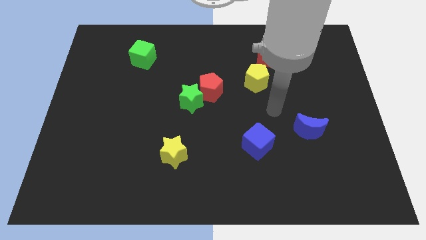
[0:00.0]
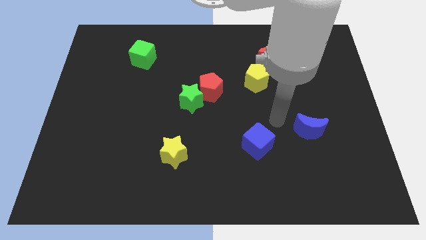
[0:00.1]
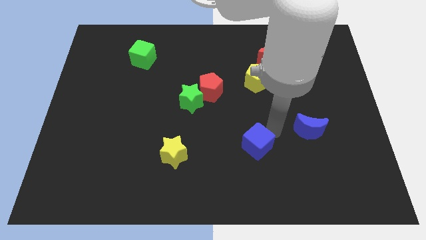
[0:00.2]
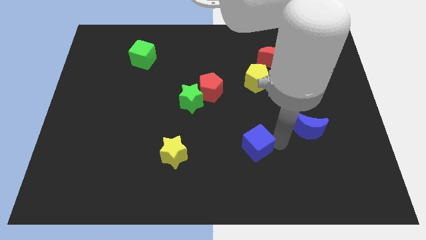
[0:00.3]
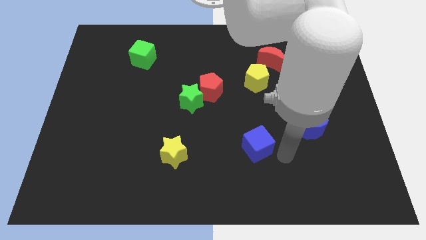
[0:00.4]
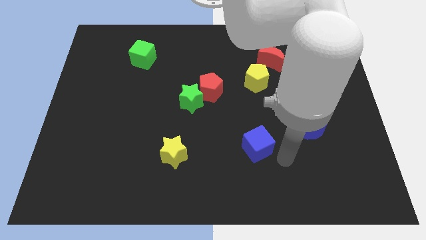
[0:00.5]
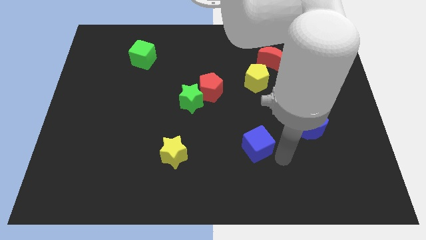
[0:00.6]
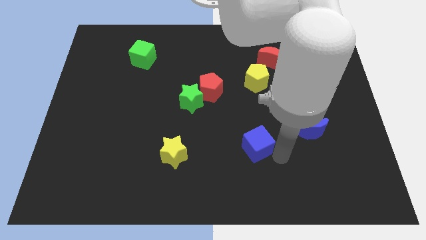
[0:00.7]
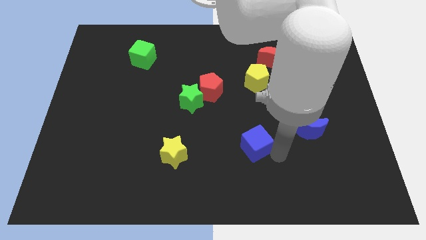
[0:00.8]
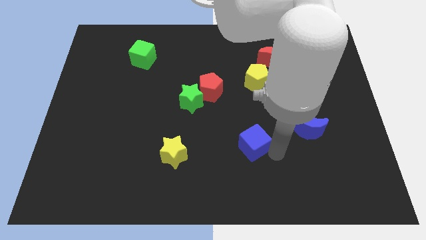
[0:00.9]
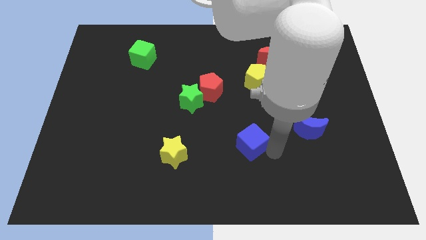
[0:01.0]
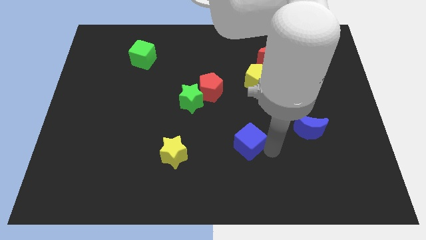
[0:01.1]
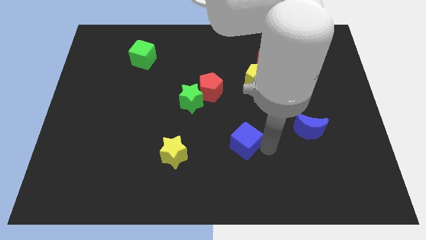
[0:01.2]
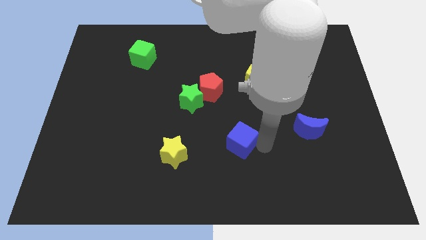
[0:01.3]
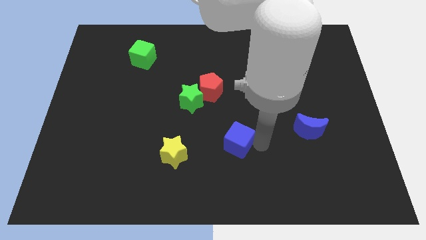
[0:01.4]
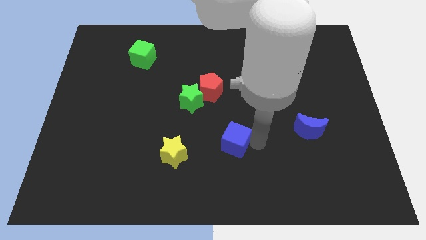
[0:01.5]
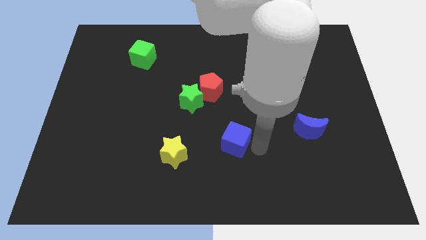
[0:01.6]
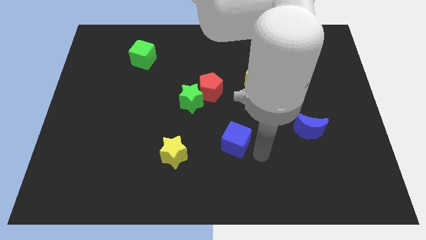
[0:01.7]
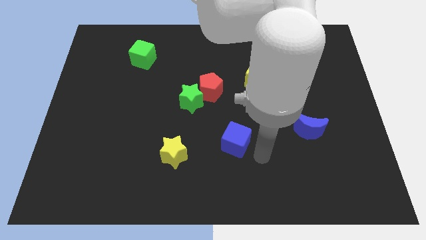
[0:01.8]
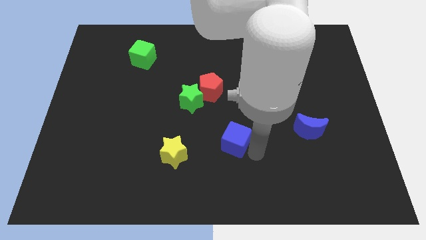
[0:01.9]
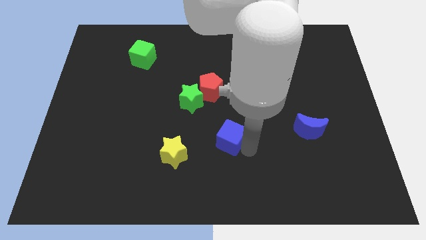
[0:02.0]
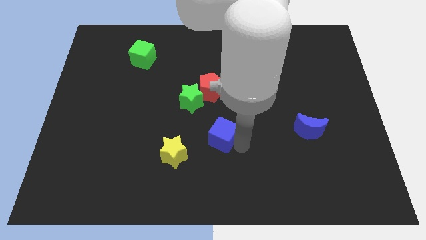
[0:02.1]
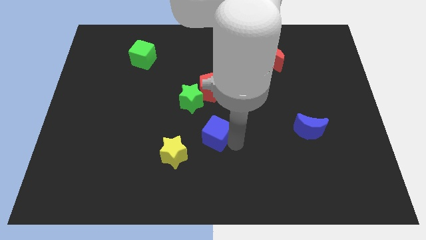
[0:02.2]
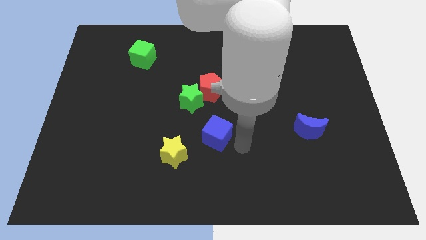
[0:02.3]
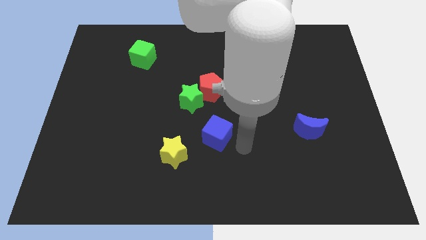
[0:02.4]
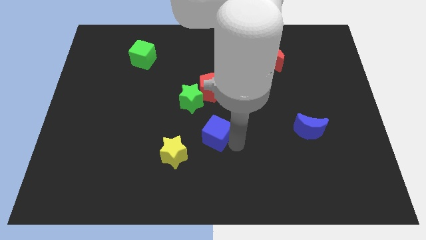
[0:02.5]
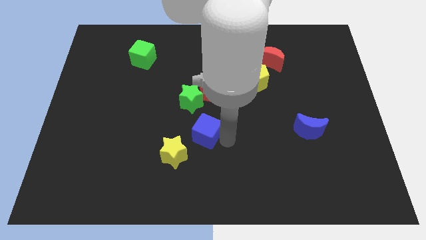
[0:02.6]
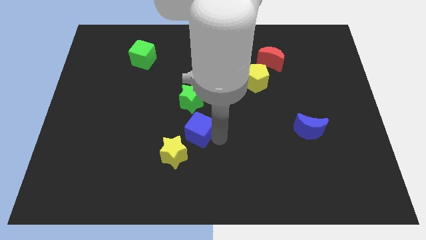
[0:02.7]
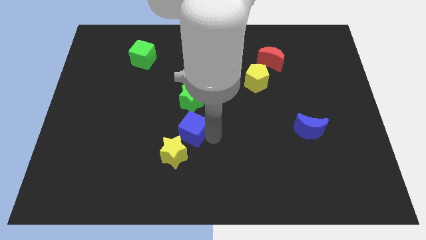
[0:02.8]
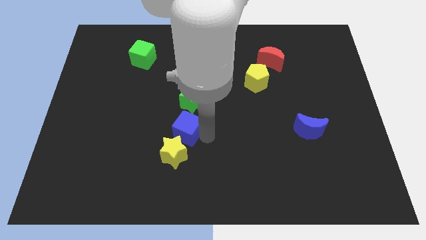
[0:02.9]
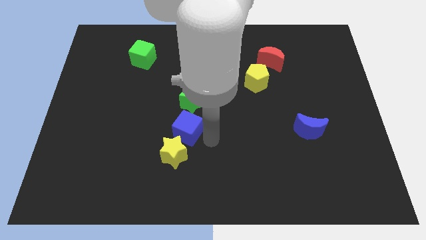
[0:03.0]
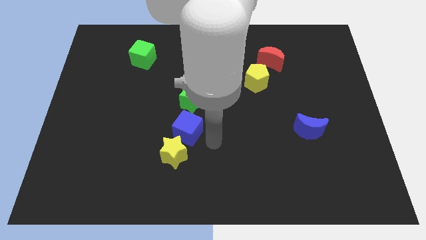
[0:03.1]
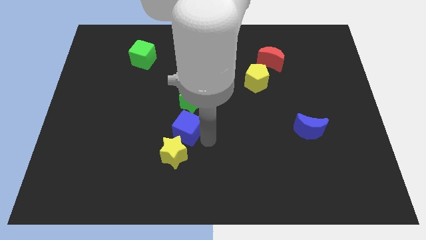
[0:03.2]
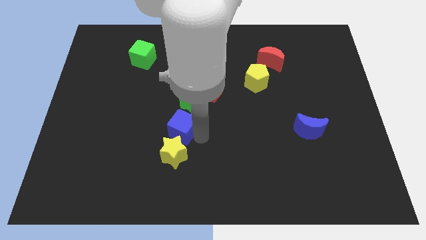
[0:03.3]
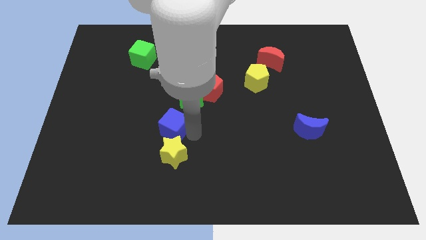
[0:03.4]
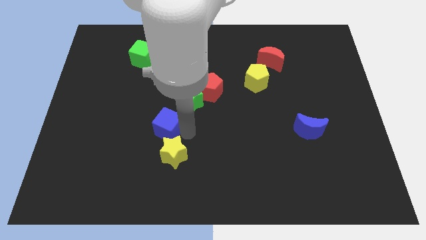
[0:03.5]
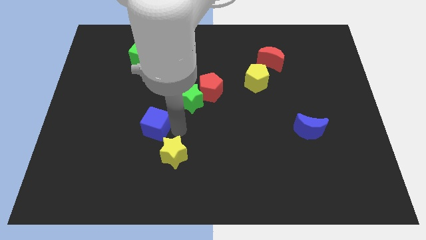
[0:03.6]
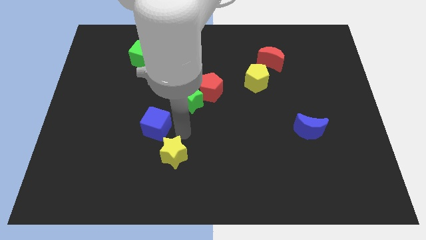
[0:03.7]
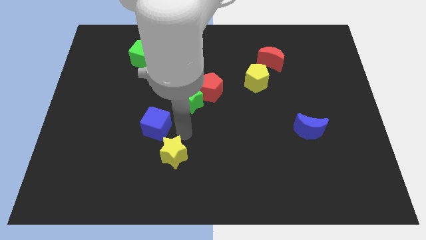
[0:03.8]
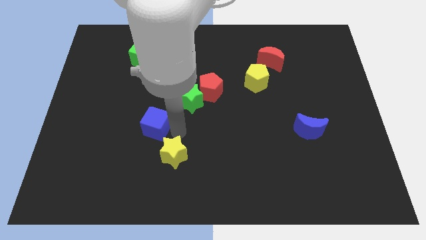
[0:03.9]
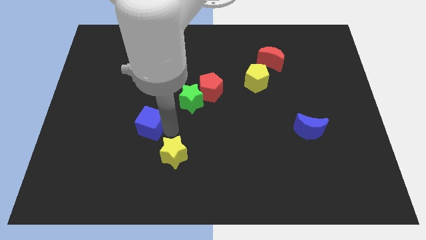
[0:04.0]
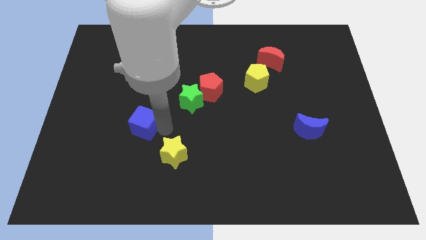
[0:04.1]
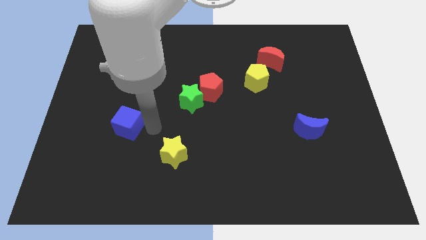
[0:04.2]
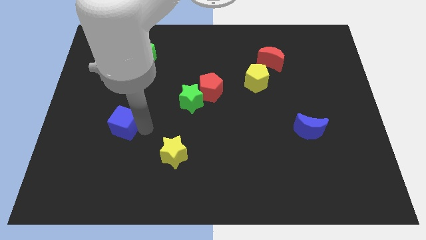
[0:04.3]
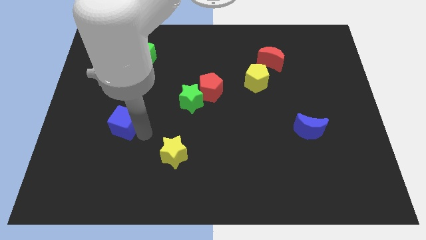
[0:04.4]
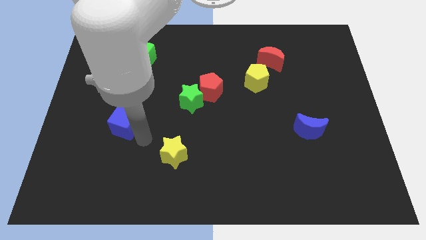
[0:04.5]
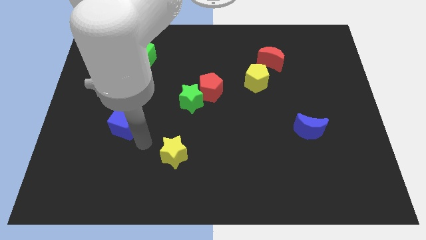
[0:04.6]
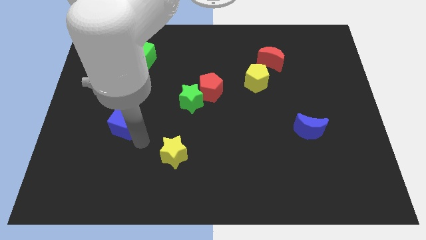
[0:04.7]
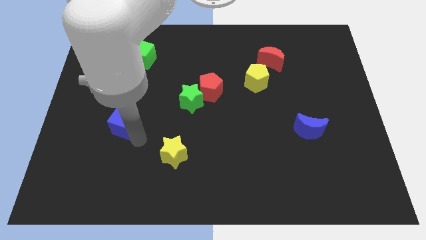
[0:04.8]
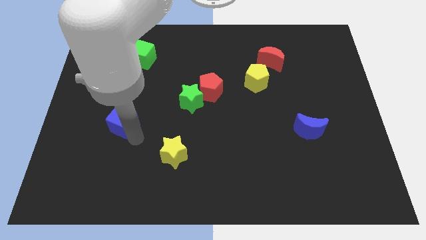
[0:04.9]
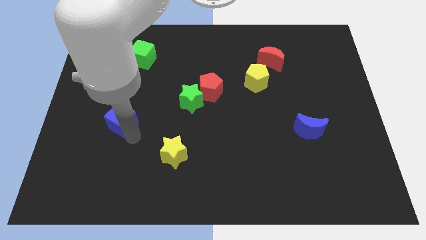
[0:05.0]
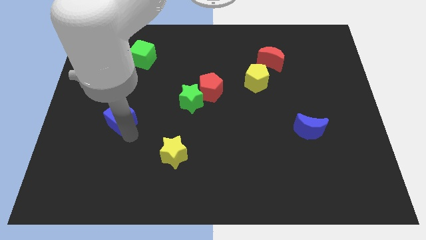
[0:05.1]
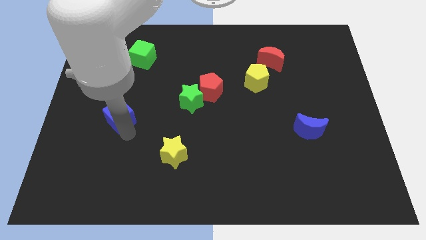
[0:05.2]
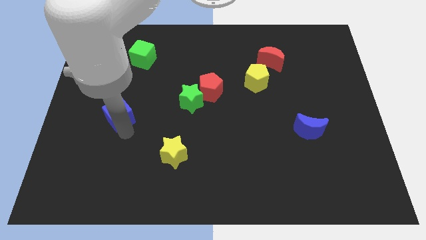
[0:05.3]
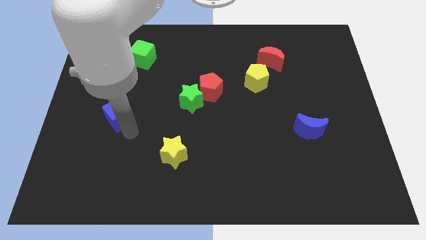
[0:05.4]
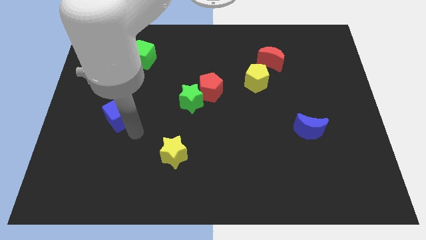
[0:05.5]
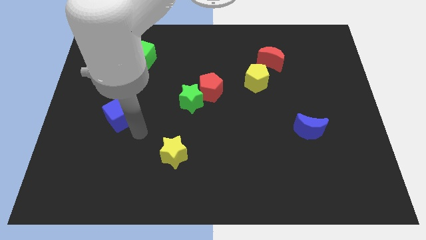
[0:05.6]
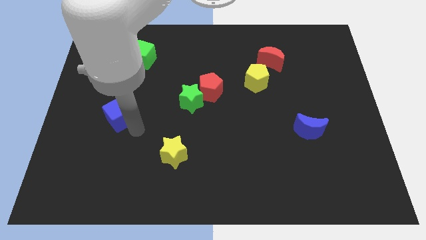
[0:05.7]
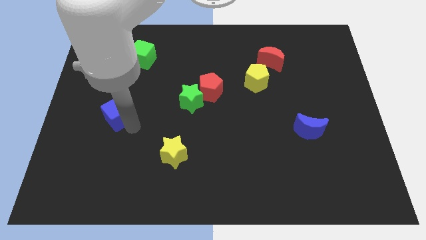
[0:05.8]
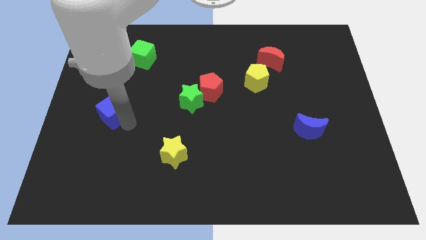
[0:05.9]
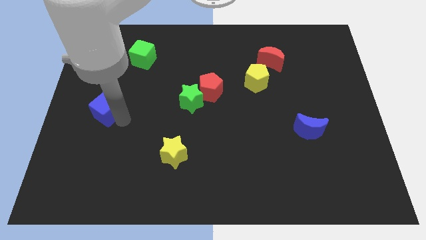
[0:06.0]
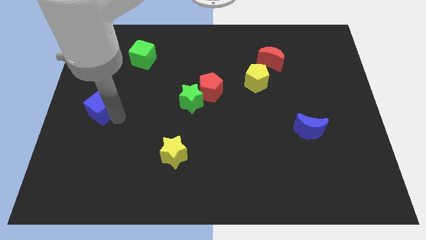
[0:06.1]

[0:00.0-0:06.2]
slide the blue cube to the center left

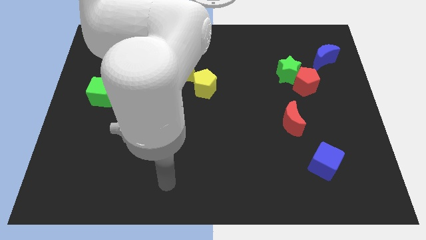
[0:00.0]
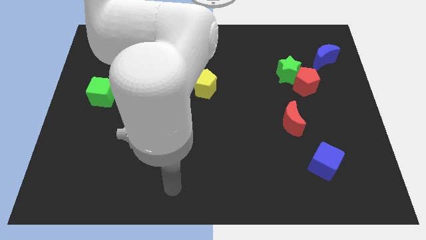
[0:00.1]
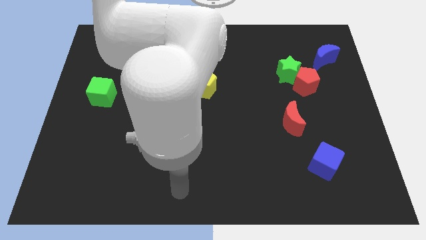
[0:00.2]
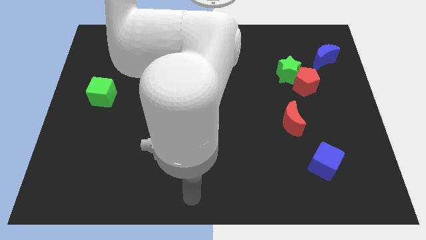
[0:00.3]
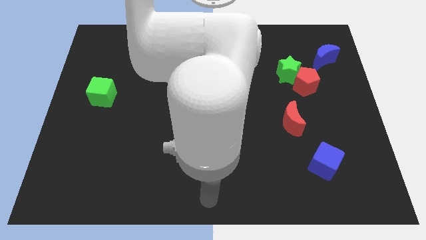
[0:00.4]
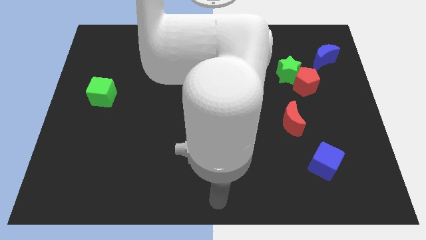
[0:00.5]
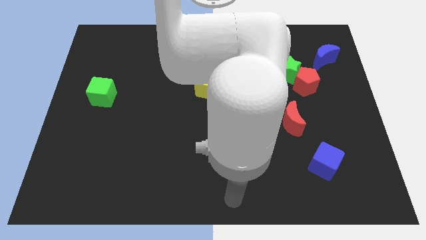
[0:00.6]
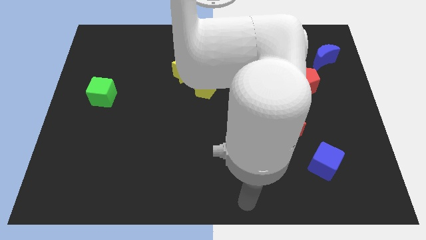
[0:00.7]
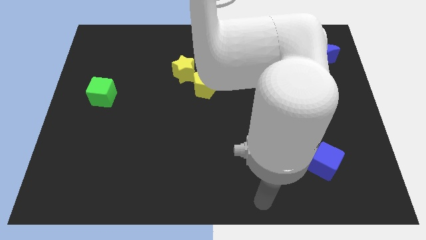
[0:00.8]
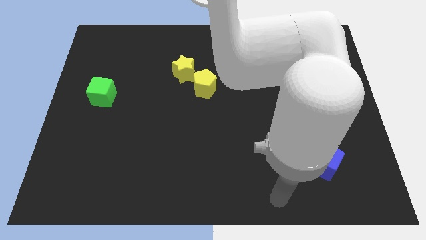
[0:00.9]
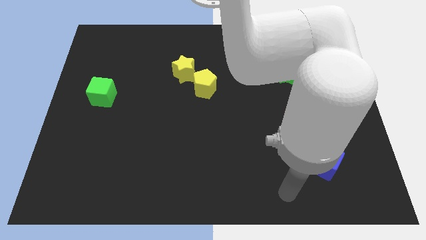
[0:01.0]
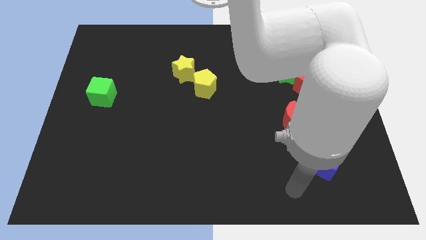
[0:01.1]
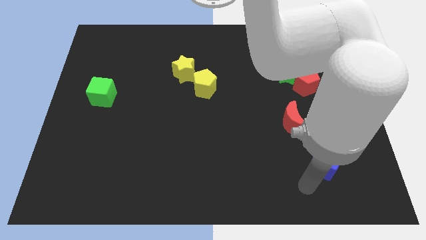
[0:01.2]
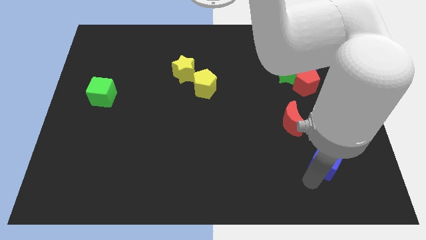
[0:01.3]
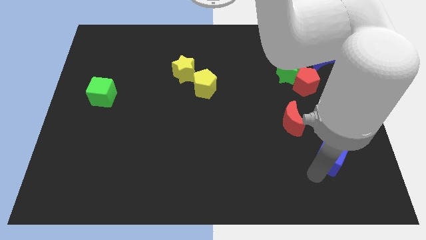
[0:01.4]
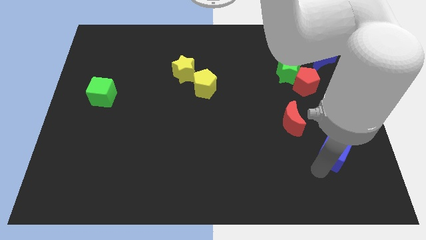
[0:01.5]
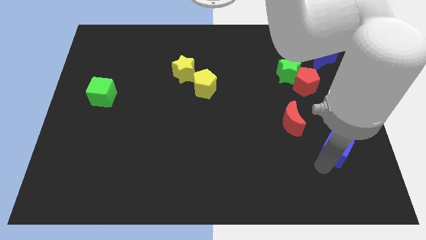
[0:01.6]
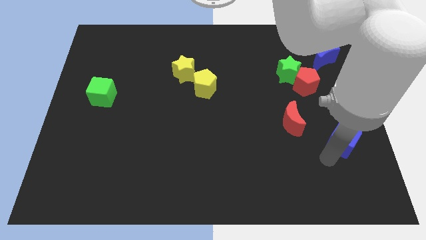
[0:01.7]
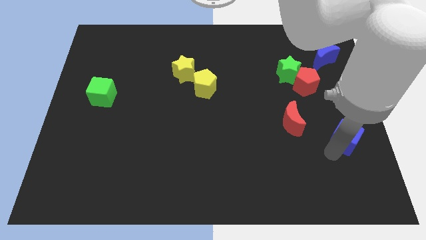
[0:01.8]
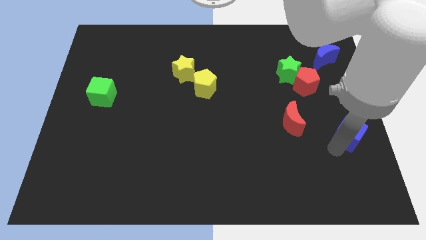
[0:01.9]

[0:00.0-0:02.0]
put the blue cube to the center right

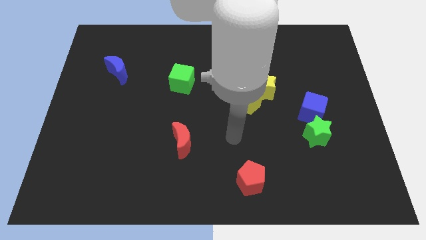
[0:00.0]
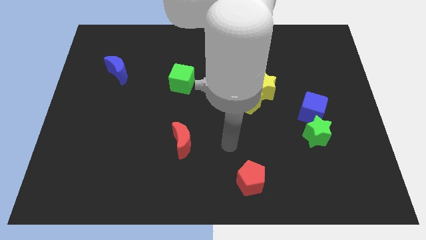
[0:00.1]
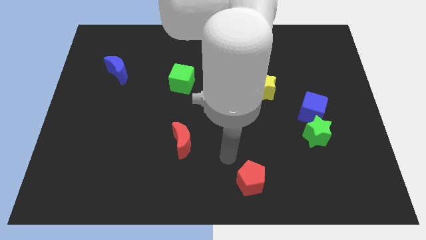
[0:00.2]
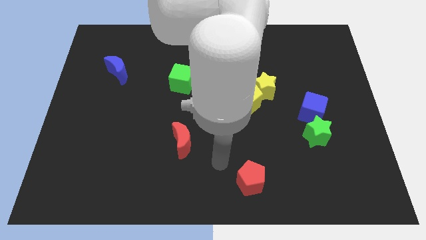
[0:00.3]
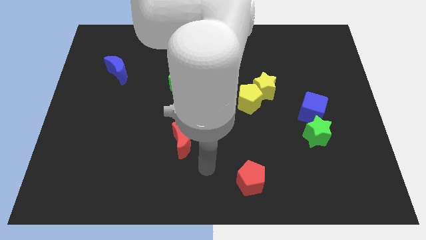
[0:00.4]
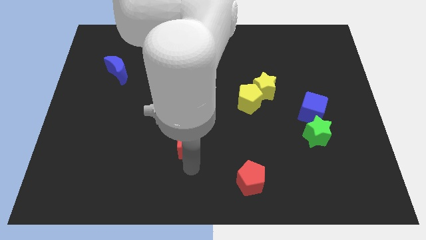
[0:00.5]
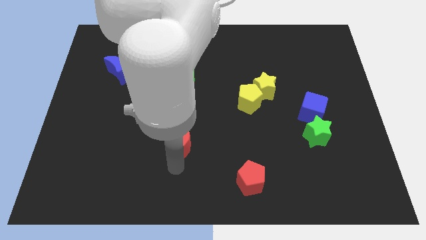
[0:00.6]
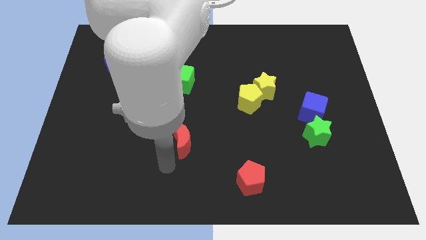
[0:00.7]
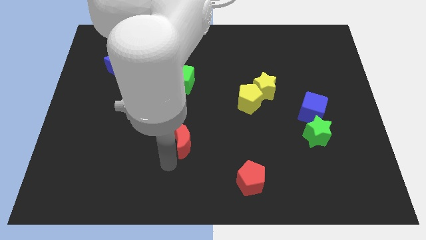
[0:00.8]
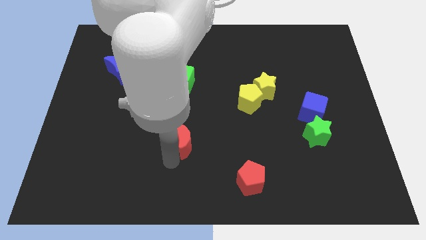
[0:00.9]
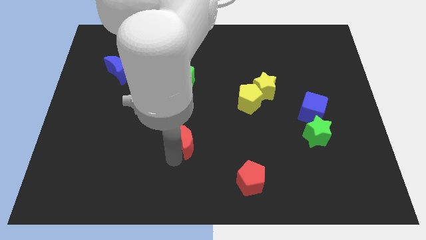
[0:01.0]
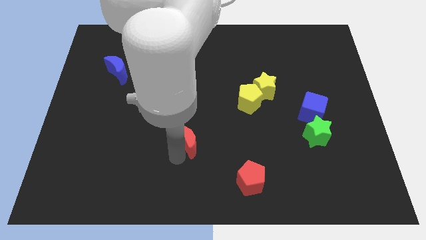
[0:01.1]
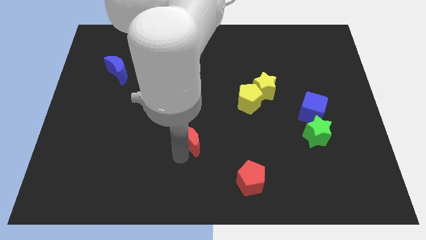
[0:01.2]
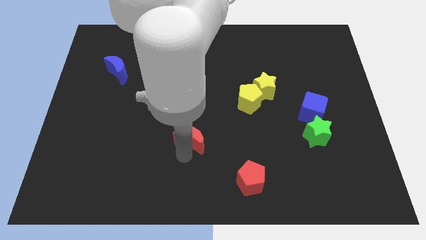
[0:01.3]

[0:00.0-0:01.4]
push the red moon to the middle of the board
